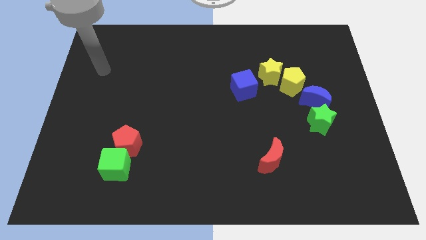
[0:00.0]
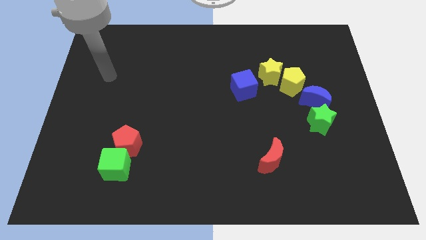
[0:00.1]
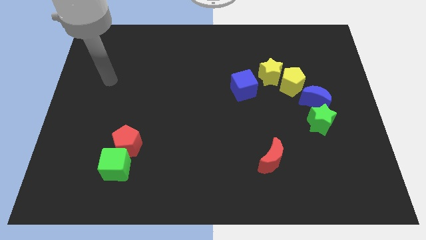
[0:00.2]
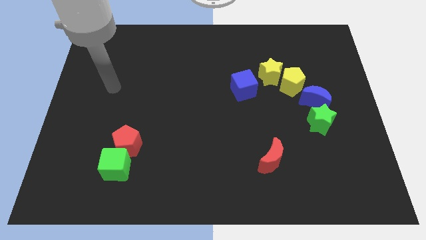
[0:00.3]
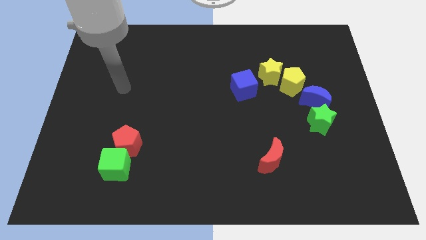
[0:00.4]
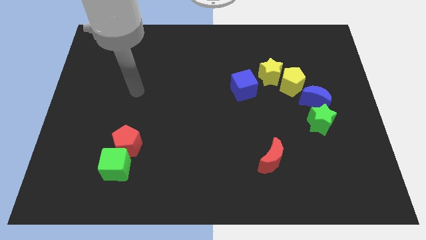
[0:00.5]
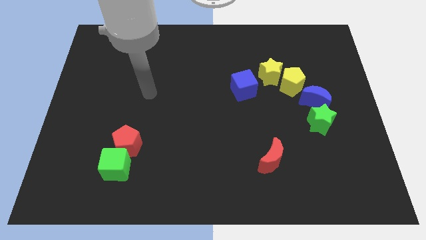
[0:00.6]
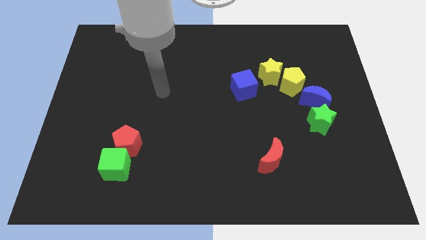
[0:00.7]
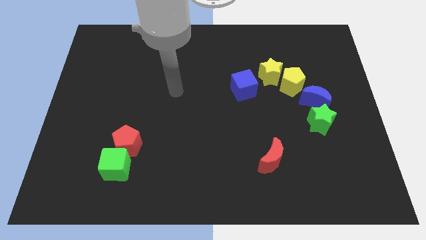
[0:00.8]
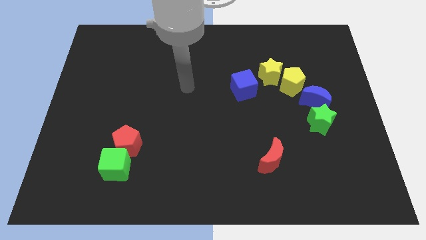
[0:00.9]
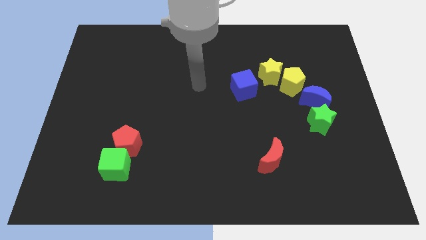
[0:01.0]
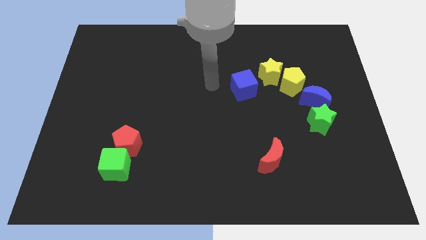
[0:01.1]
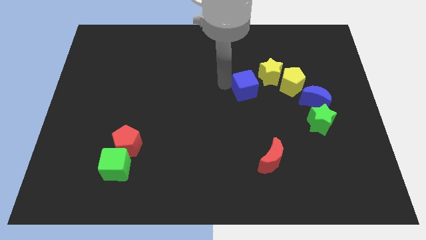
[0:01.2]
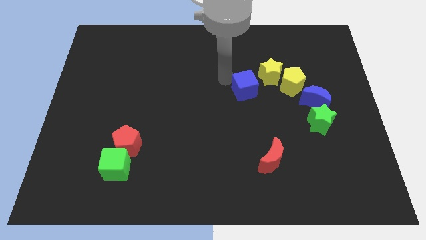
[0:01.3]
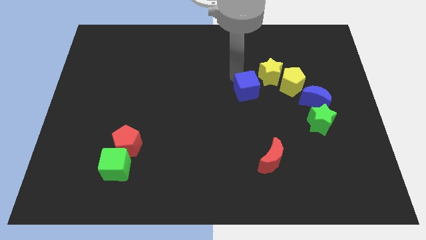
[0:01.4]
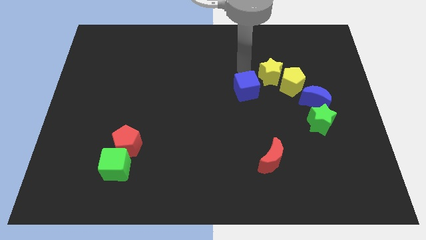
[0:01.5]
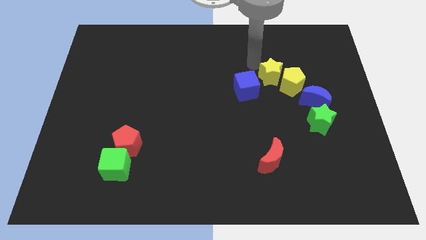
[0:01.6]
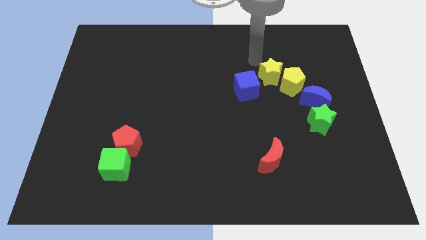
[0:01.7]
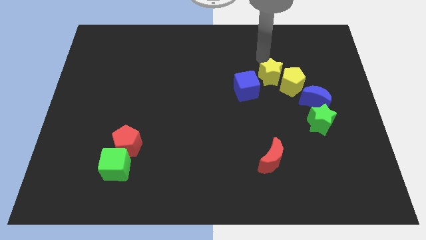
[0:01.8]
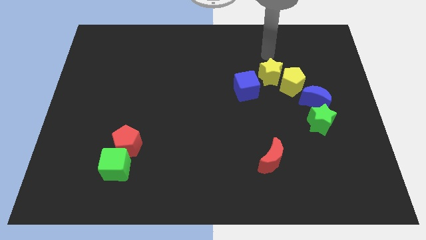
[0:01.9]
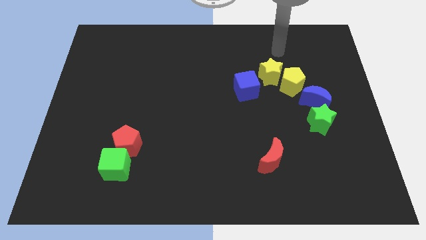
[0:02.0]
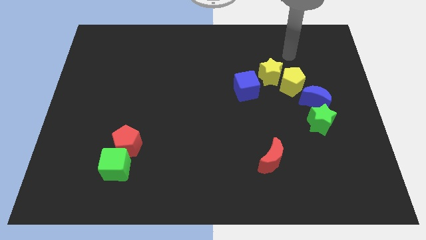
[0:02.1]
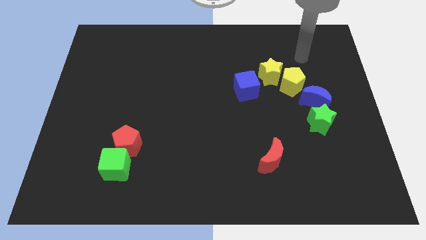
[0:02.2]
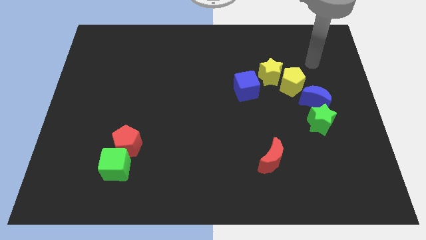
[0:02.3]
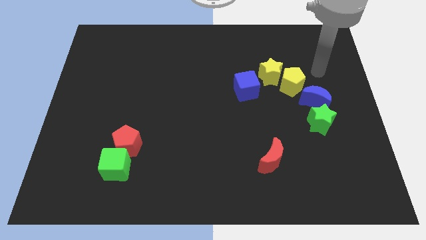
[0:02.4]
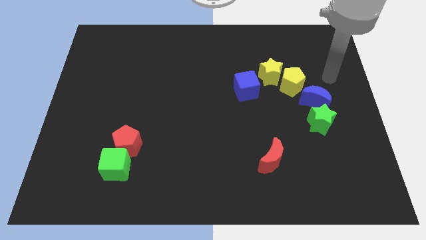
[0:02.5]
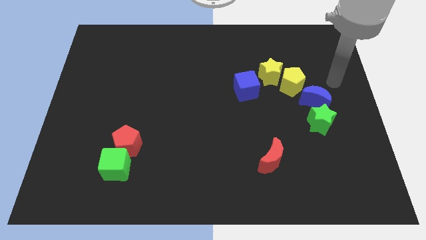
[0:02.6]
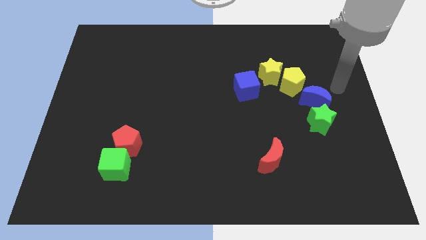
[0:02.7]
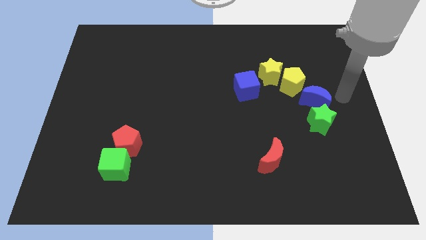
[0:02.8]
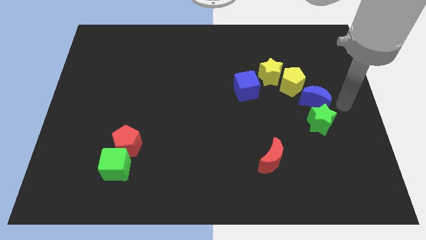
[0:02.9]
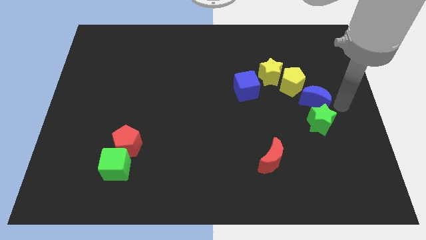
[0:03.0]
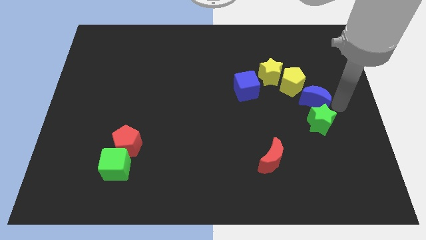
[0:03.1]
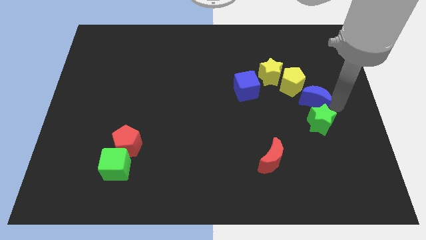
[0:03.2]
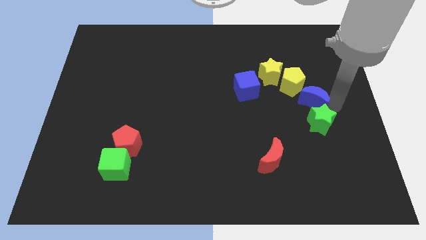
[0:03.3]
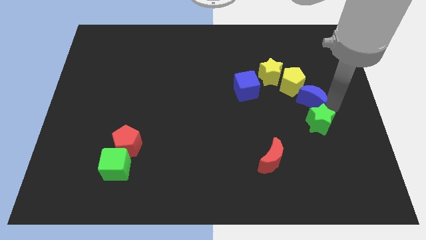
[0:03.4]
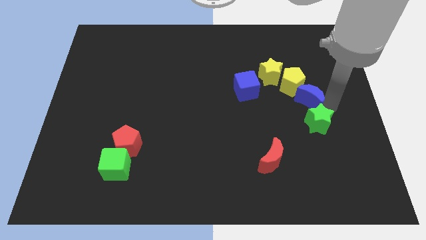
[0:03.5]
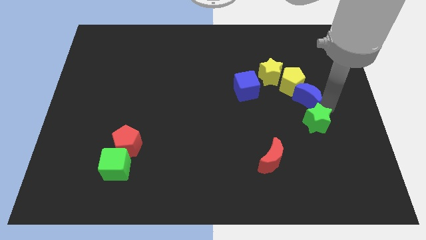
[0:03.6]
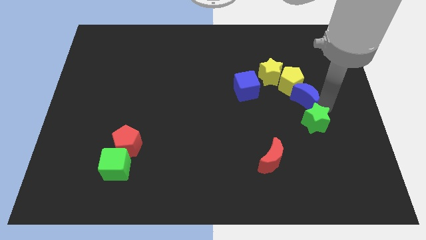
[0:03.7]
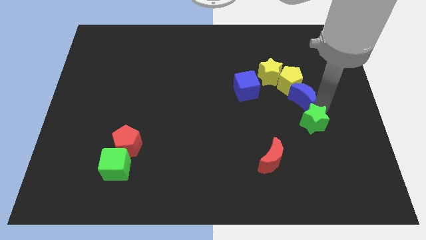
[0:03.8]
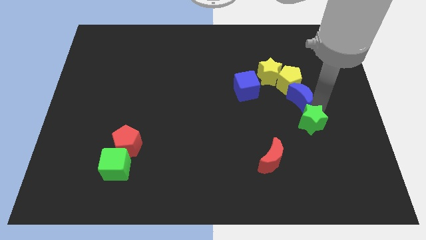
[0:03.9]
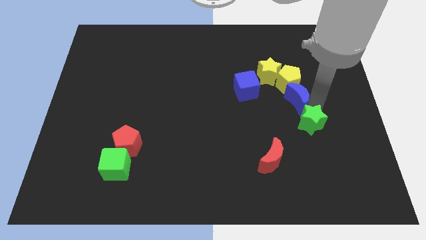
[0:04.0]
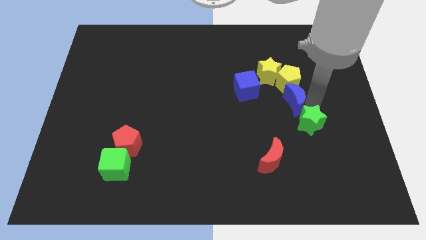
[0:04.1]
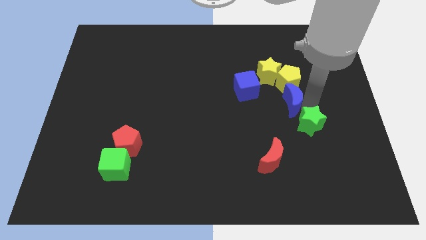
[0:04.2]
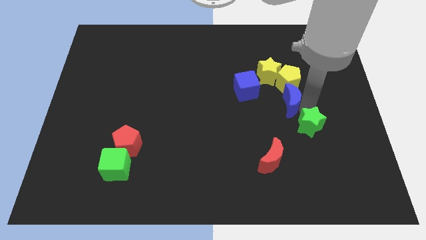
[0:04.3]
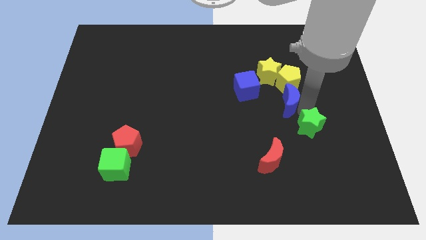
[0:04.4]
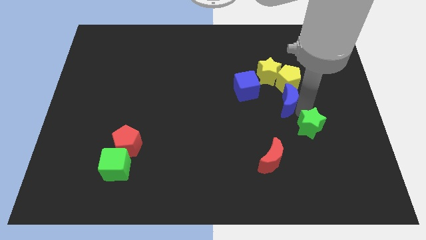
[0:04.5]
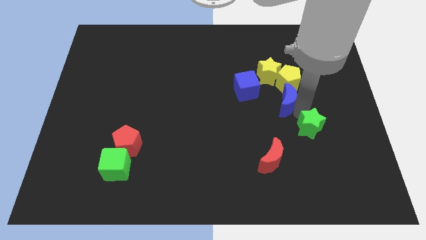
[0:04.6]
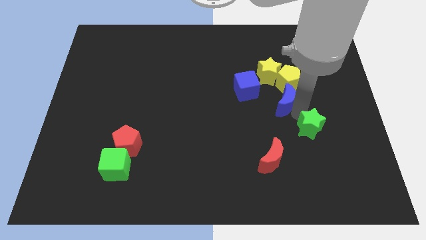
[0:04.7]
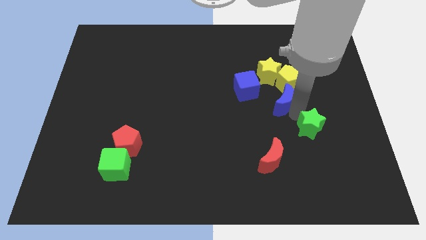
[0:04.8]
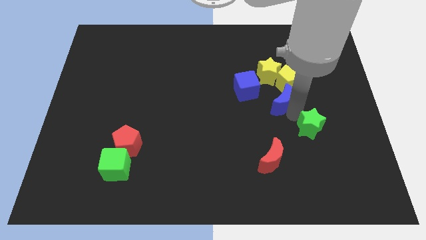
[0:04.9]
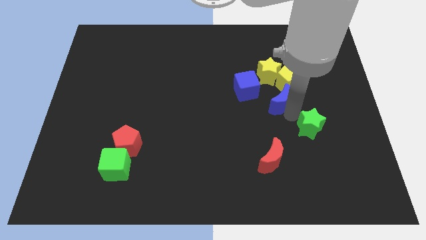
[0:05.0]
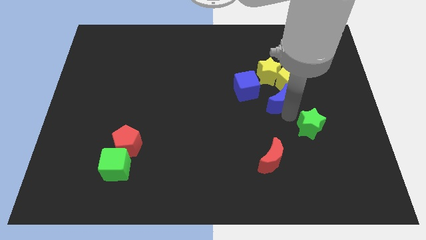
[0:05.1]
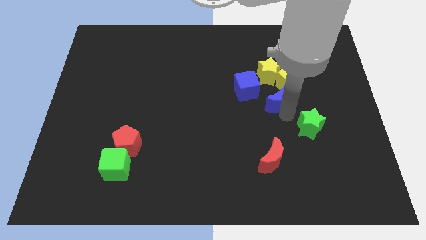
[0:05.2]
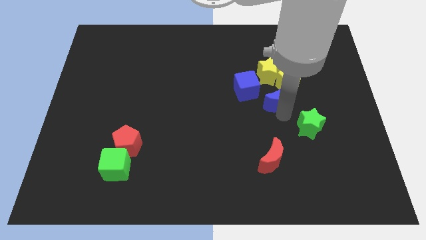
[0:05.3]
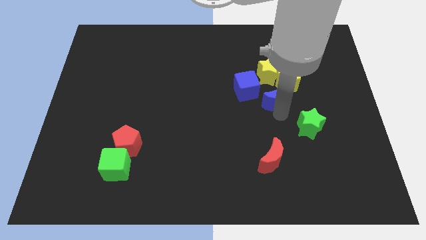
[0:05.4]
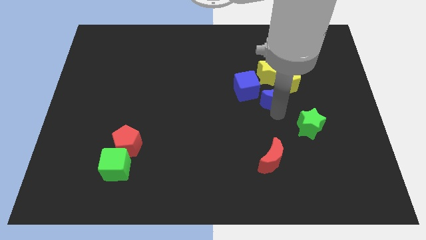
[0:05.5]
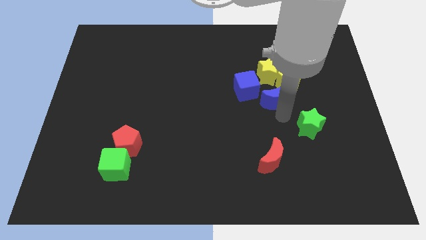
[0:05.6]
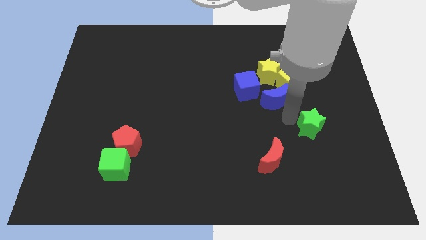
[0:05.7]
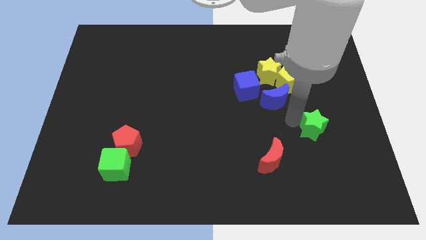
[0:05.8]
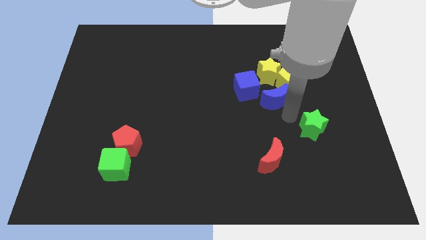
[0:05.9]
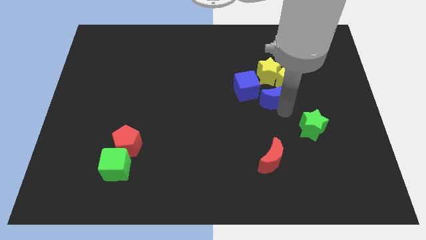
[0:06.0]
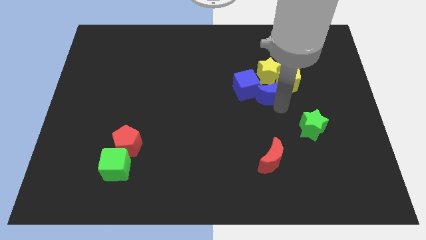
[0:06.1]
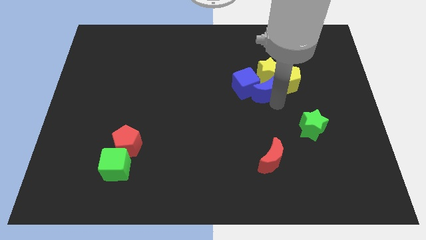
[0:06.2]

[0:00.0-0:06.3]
slightly slide the blue moon up and to the left

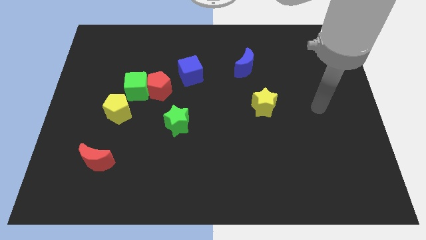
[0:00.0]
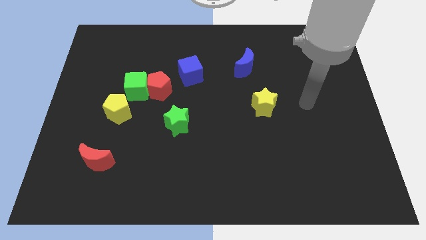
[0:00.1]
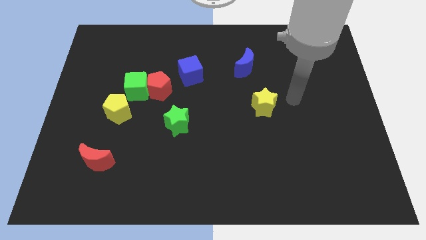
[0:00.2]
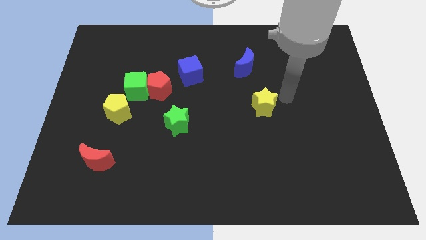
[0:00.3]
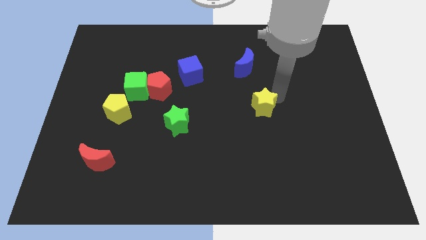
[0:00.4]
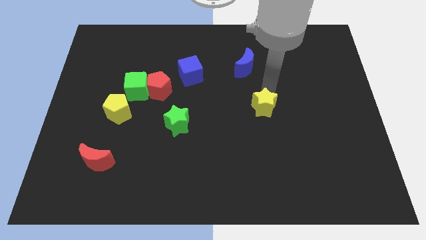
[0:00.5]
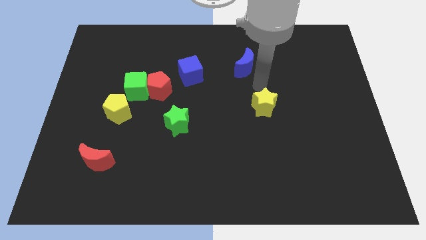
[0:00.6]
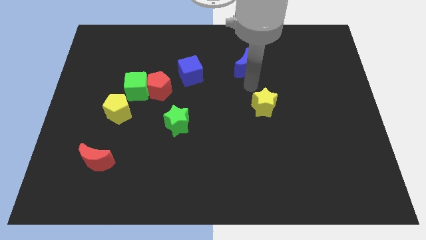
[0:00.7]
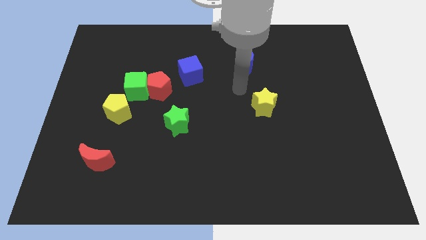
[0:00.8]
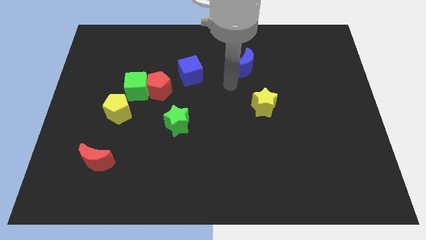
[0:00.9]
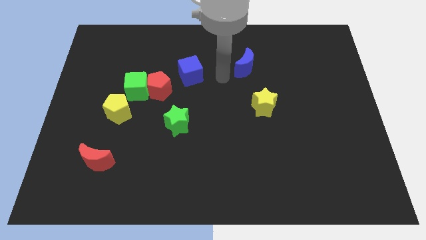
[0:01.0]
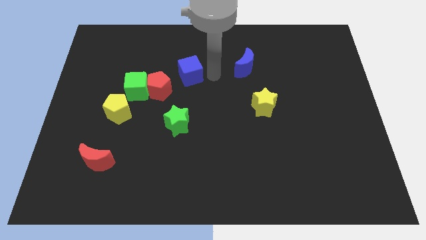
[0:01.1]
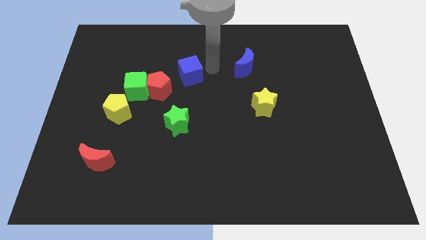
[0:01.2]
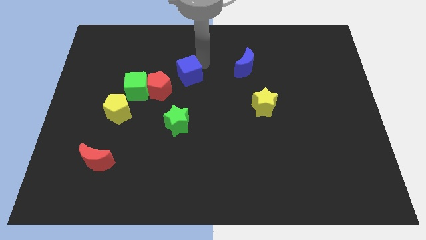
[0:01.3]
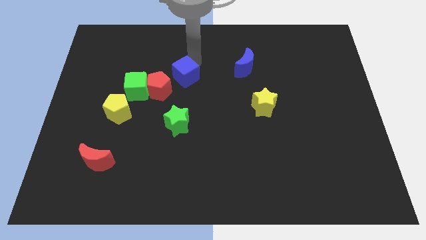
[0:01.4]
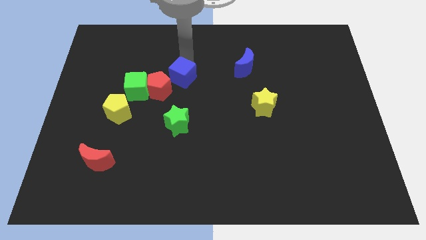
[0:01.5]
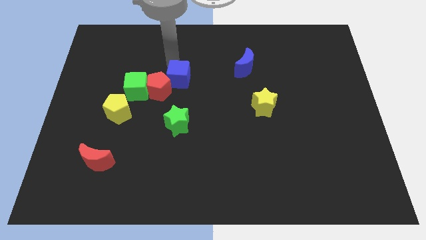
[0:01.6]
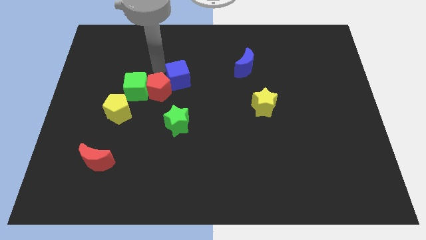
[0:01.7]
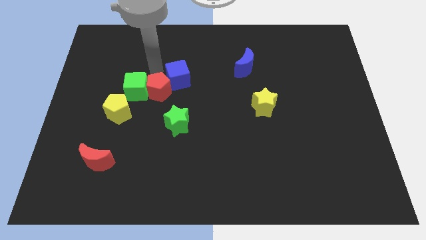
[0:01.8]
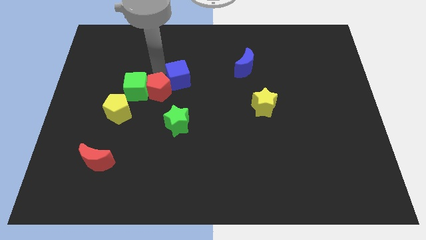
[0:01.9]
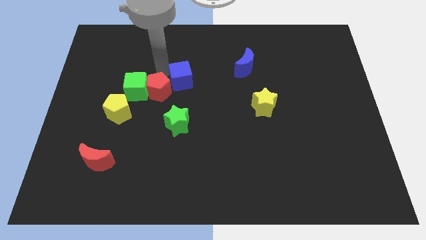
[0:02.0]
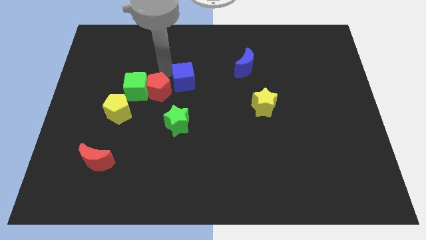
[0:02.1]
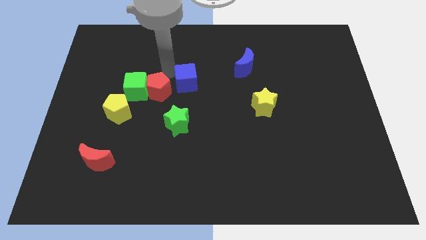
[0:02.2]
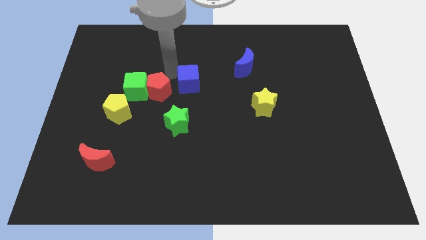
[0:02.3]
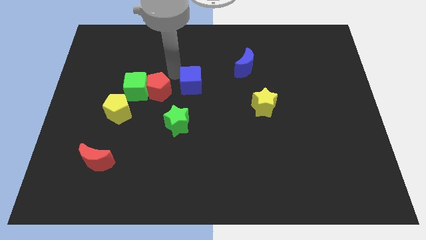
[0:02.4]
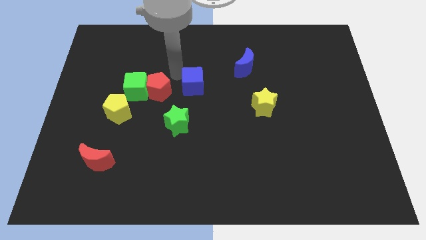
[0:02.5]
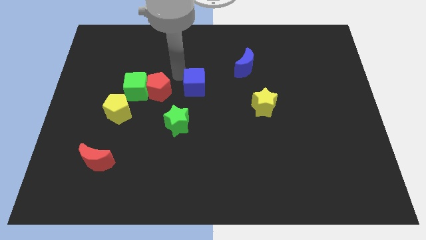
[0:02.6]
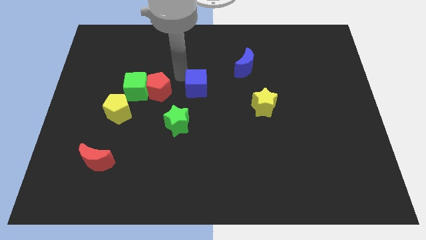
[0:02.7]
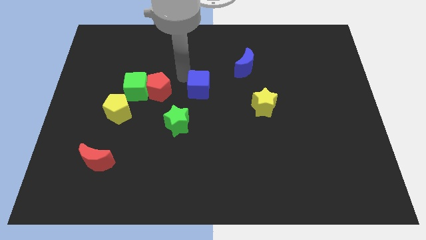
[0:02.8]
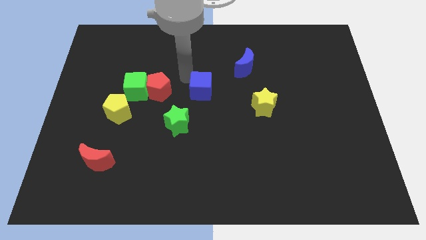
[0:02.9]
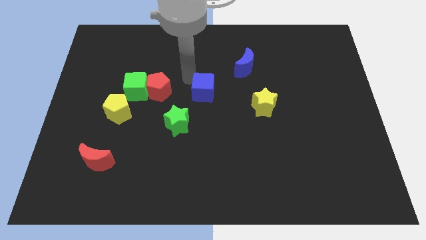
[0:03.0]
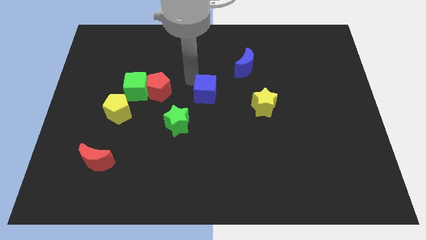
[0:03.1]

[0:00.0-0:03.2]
slightly push the blue cube diagonally downwards and right
